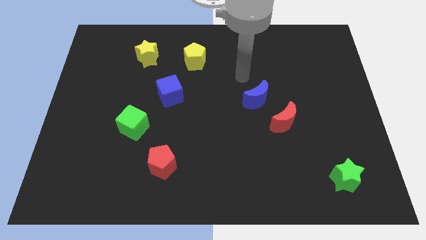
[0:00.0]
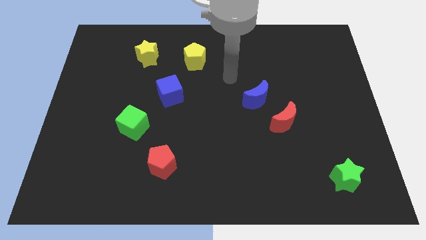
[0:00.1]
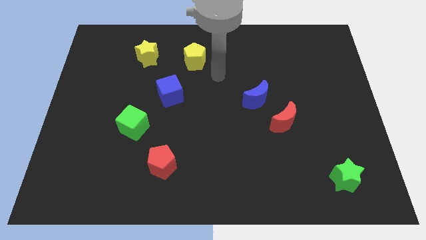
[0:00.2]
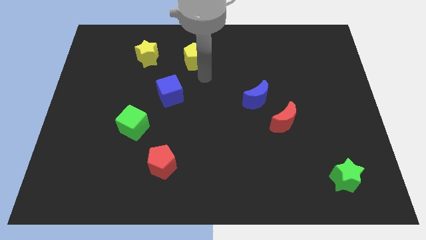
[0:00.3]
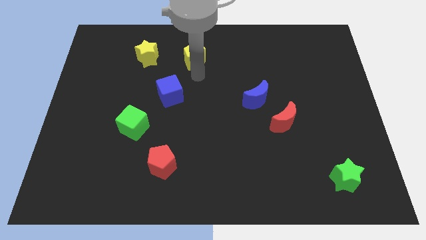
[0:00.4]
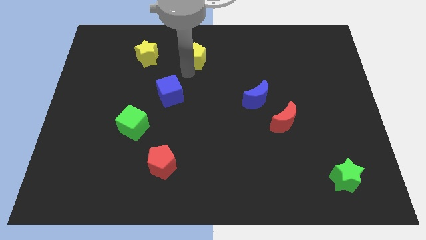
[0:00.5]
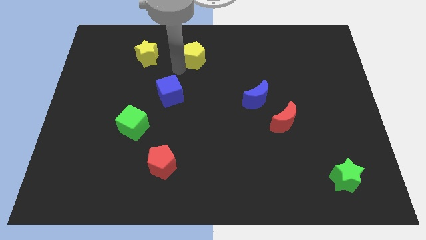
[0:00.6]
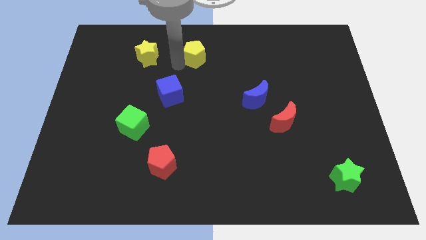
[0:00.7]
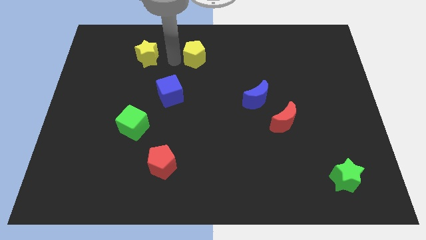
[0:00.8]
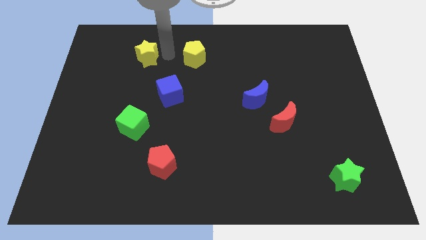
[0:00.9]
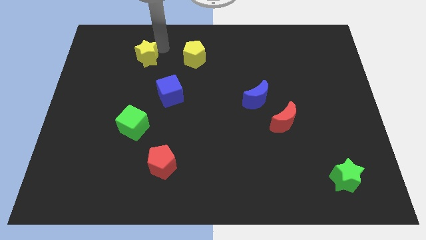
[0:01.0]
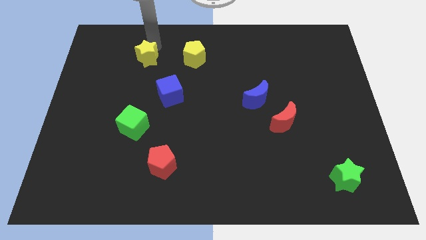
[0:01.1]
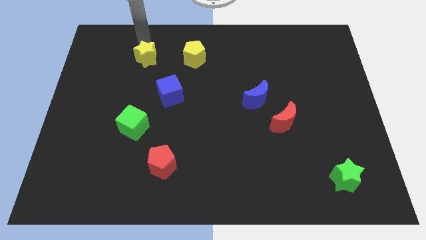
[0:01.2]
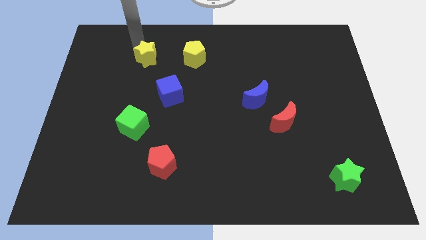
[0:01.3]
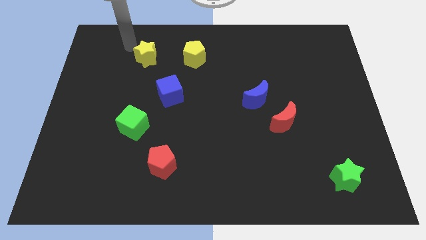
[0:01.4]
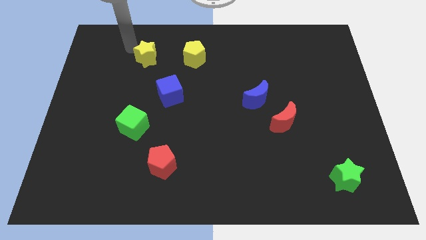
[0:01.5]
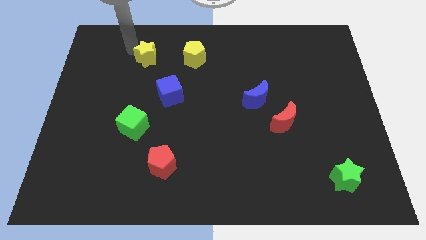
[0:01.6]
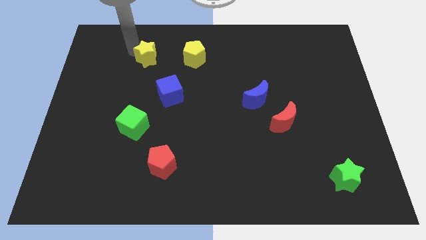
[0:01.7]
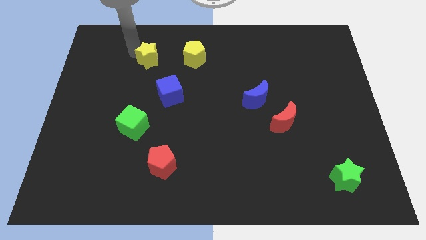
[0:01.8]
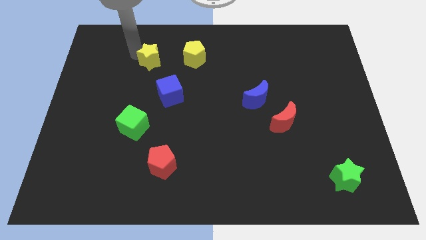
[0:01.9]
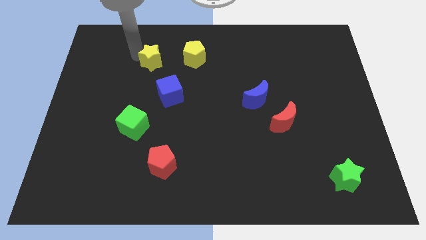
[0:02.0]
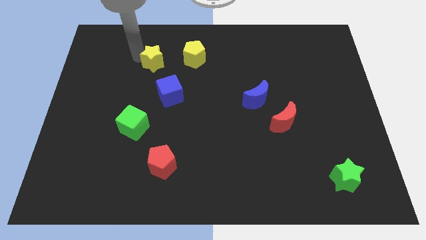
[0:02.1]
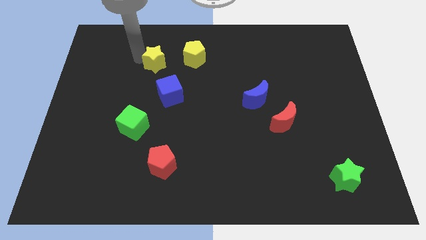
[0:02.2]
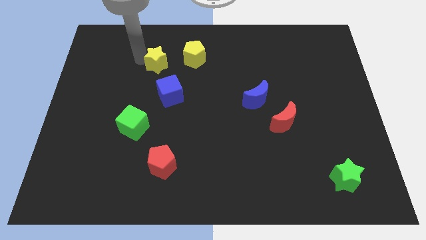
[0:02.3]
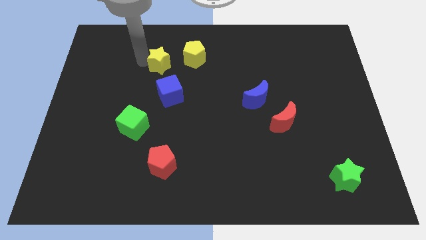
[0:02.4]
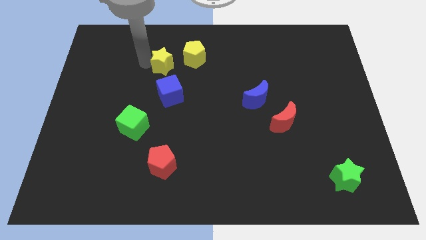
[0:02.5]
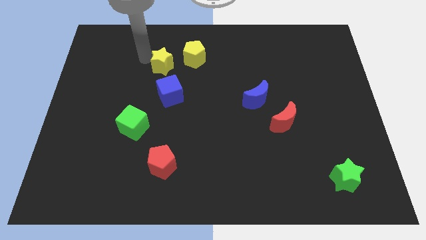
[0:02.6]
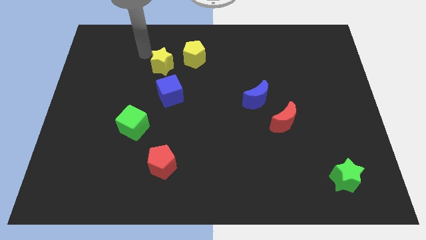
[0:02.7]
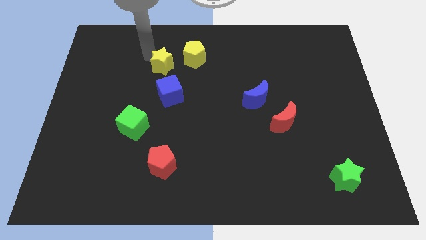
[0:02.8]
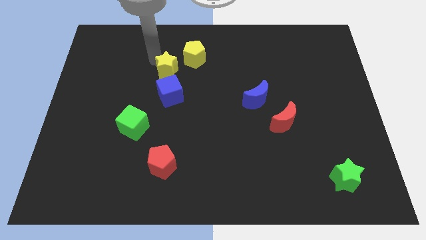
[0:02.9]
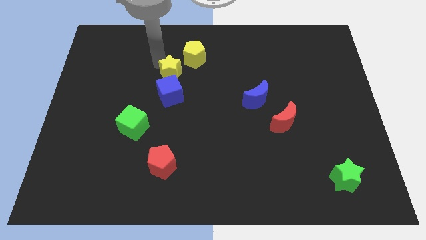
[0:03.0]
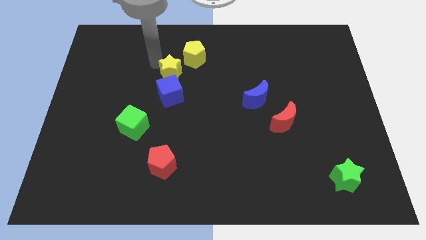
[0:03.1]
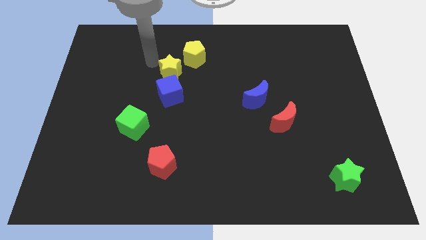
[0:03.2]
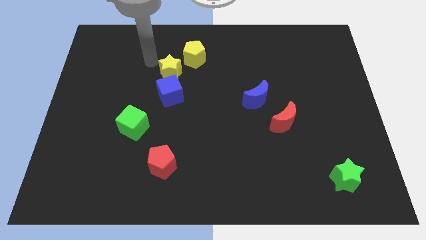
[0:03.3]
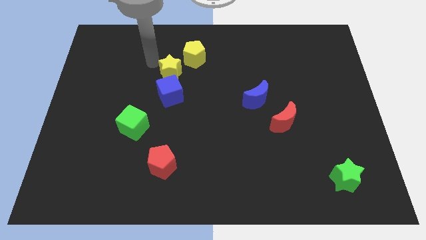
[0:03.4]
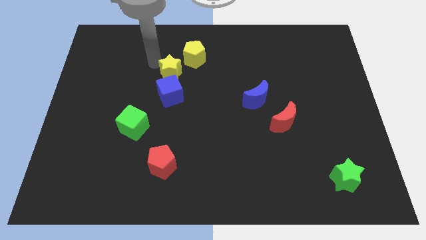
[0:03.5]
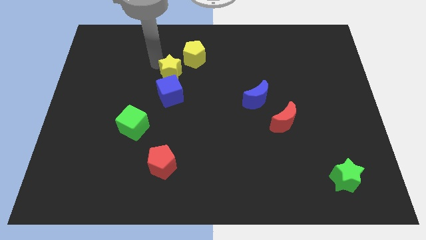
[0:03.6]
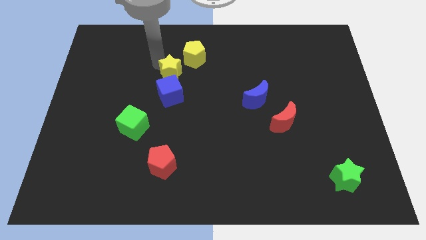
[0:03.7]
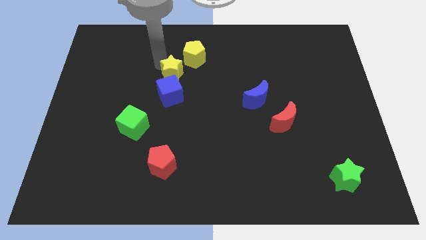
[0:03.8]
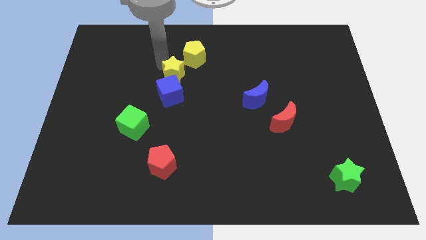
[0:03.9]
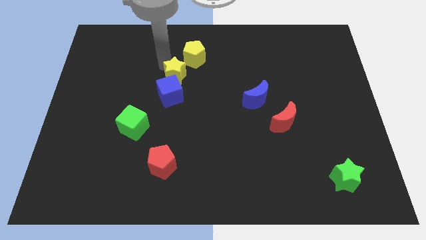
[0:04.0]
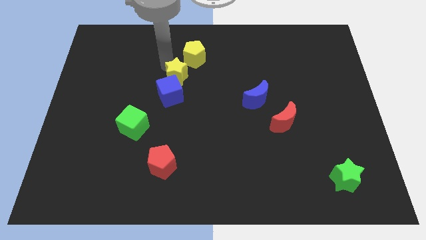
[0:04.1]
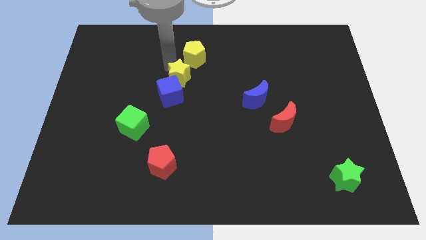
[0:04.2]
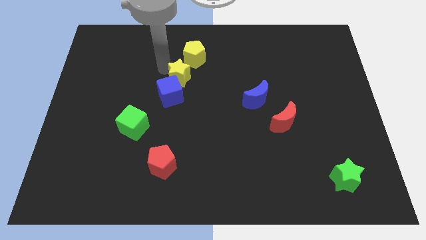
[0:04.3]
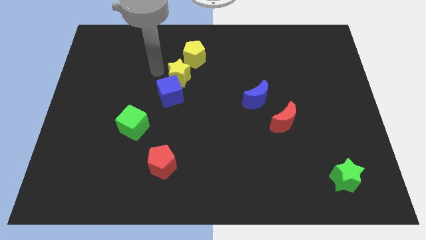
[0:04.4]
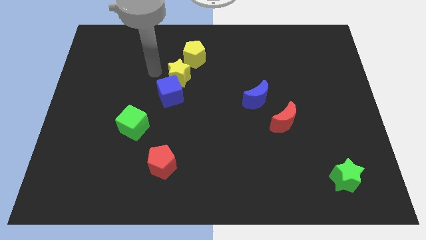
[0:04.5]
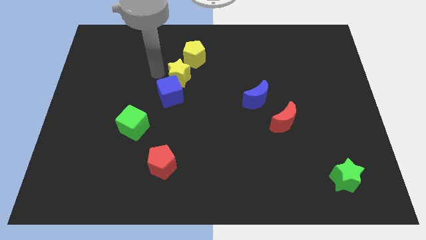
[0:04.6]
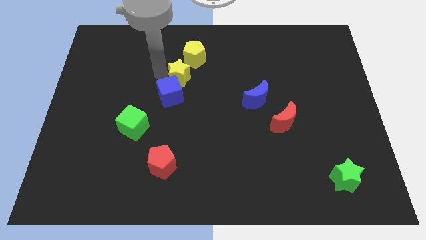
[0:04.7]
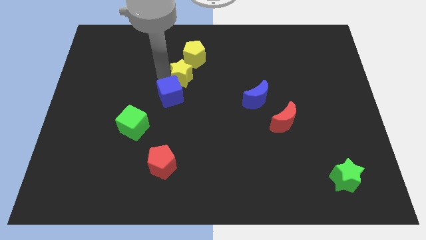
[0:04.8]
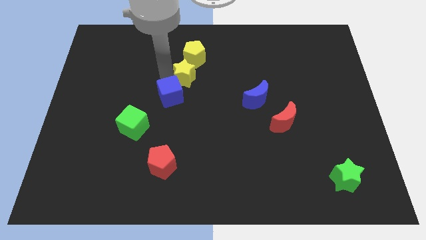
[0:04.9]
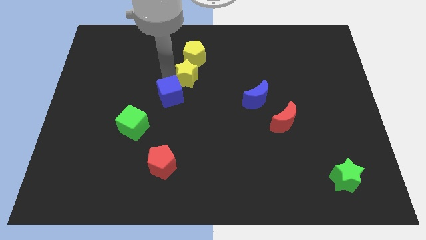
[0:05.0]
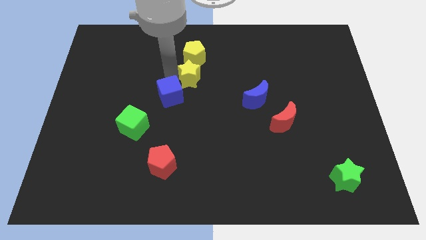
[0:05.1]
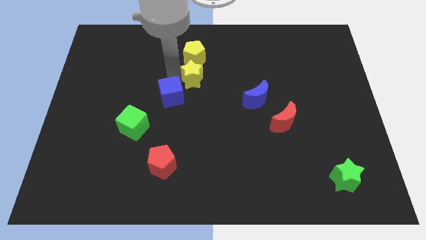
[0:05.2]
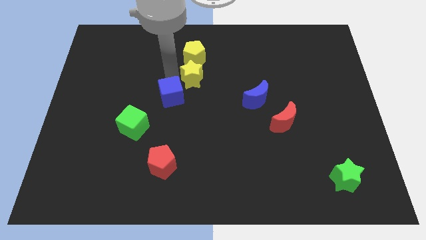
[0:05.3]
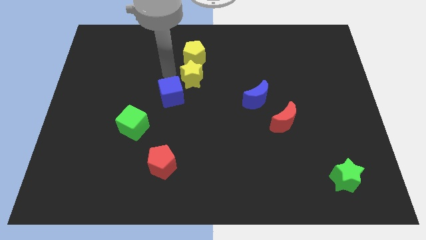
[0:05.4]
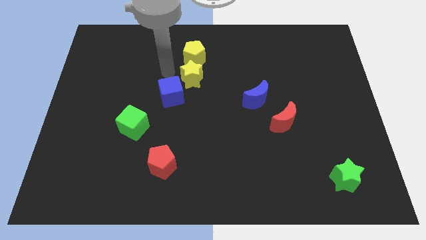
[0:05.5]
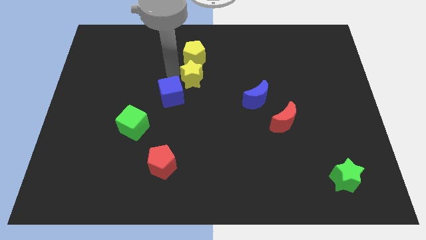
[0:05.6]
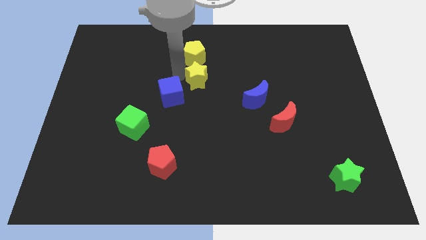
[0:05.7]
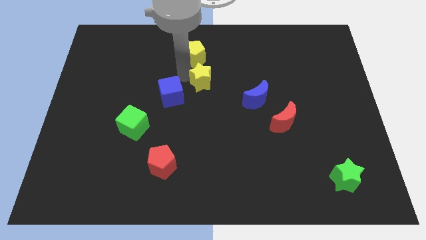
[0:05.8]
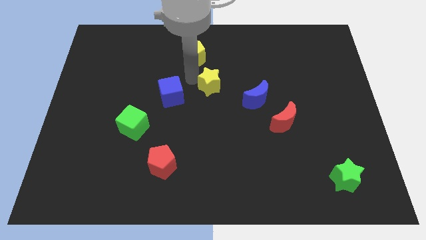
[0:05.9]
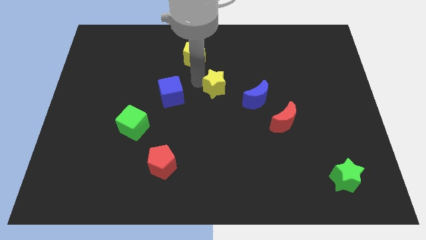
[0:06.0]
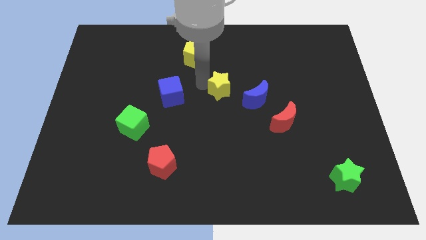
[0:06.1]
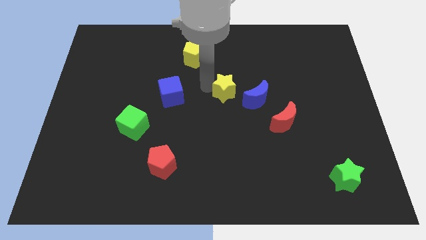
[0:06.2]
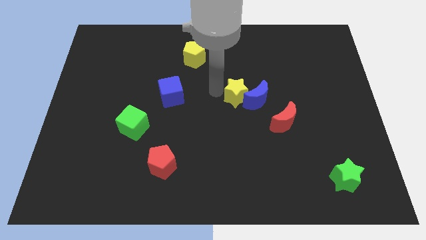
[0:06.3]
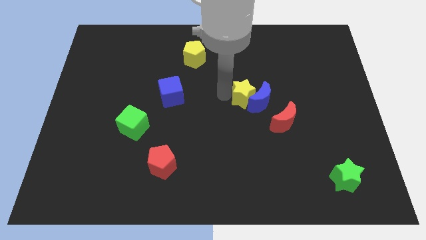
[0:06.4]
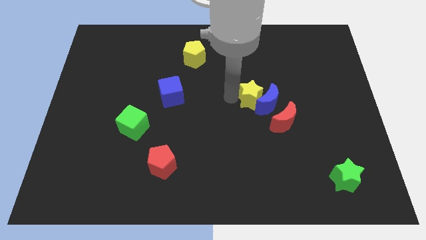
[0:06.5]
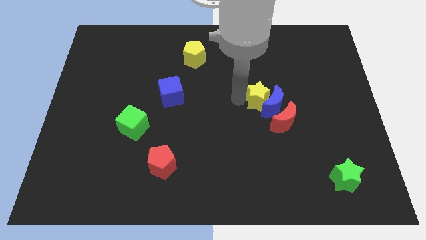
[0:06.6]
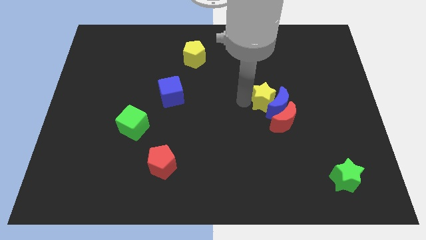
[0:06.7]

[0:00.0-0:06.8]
move the yellow star above the red moon

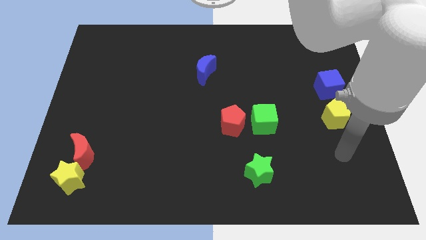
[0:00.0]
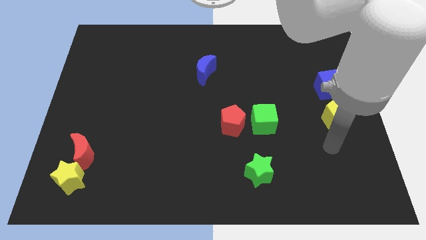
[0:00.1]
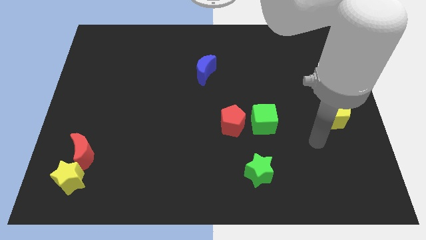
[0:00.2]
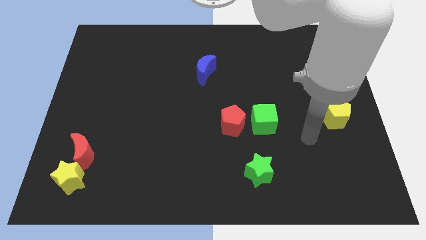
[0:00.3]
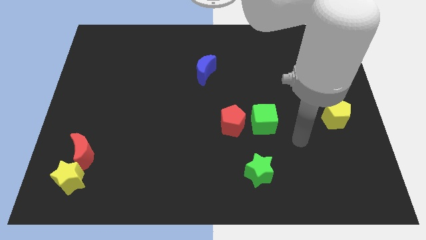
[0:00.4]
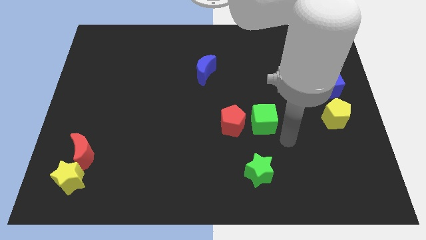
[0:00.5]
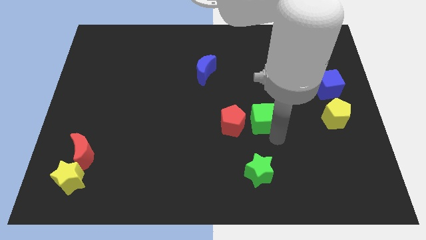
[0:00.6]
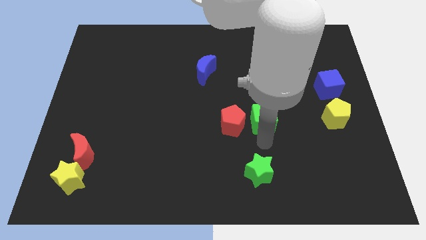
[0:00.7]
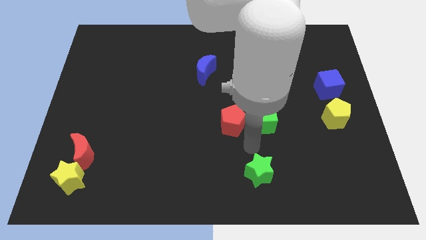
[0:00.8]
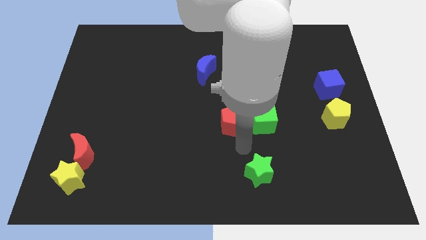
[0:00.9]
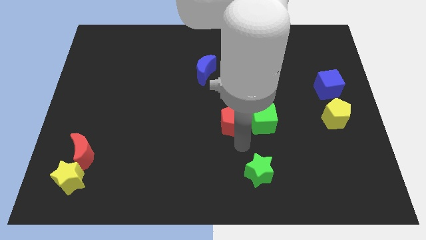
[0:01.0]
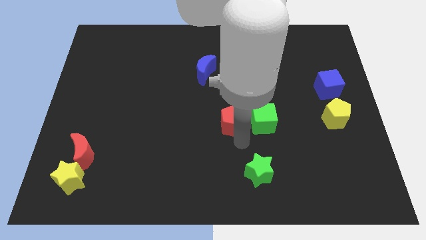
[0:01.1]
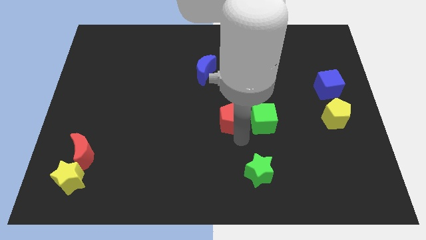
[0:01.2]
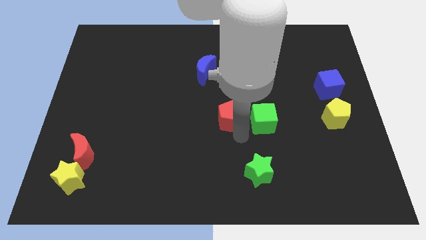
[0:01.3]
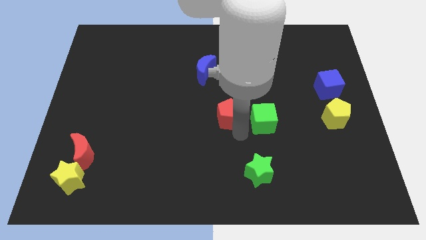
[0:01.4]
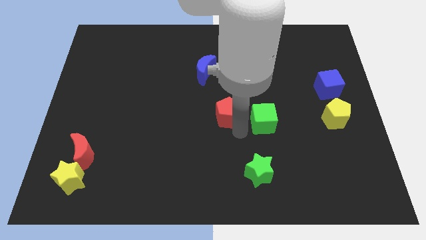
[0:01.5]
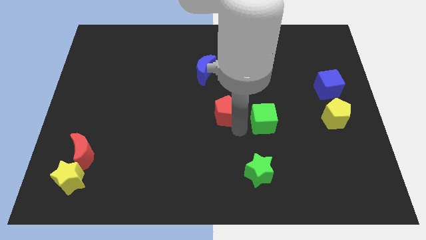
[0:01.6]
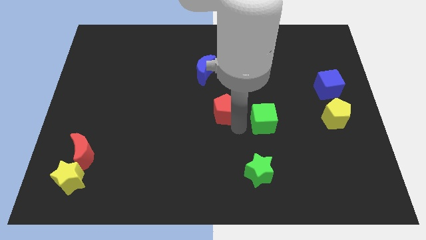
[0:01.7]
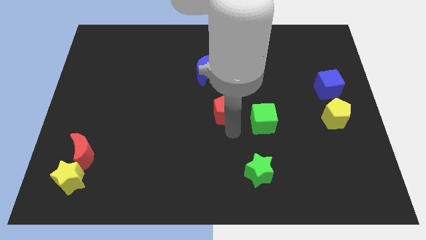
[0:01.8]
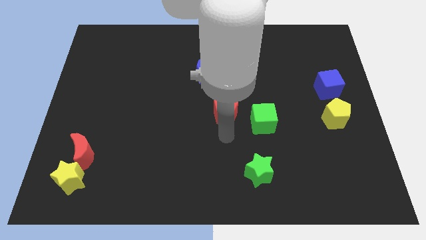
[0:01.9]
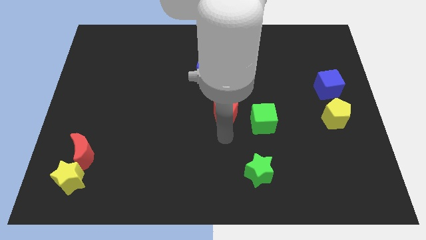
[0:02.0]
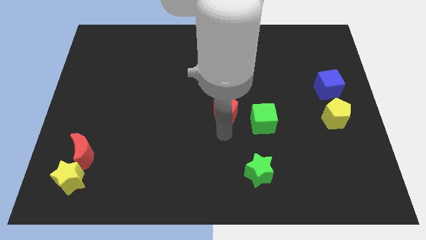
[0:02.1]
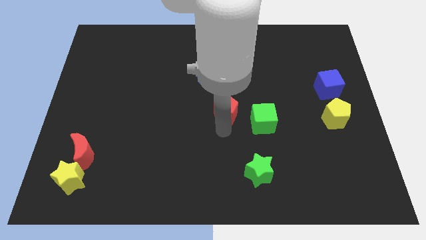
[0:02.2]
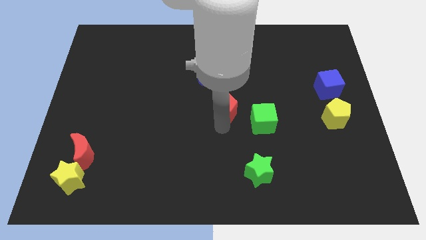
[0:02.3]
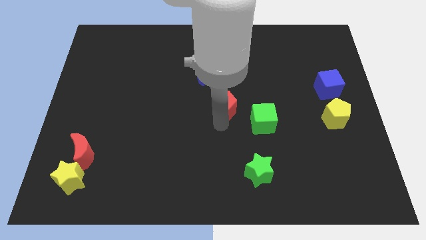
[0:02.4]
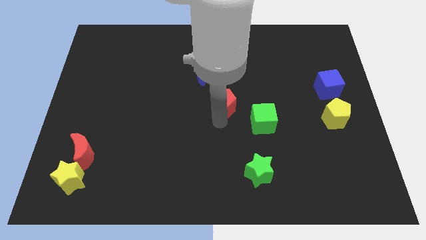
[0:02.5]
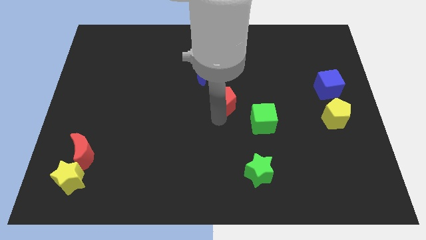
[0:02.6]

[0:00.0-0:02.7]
put the red pentagon to the bottom right of the blue moon
